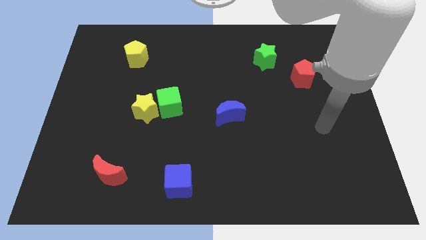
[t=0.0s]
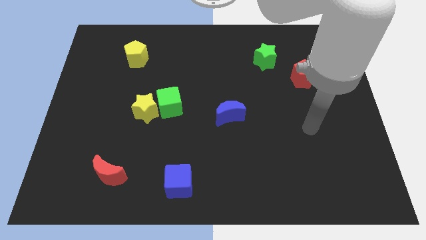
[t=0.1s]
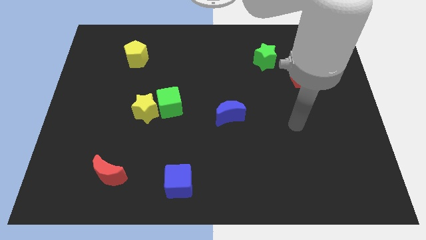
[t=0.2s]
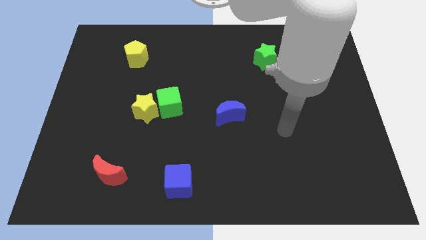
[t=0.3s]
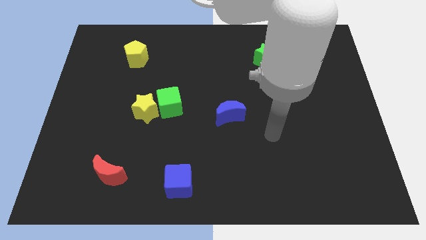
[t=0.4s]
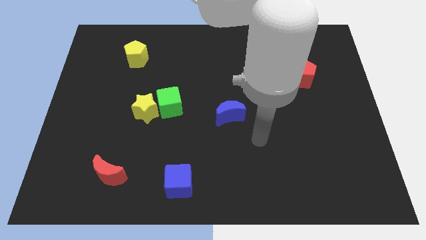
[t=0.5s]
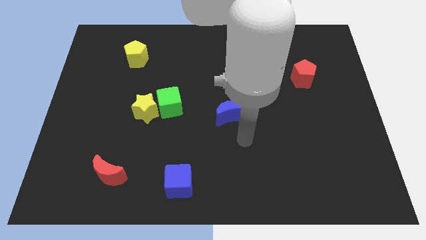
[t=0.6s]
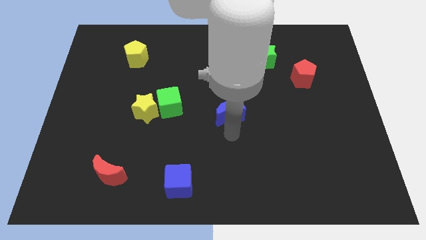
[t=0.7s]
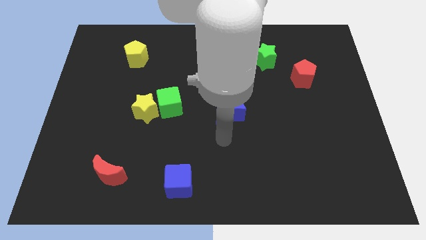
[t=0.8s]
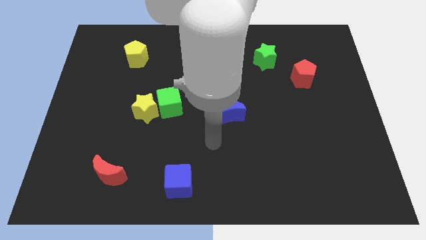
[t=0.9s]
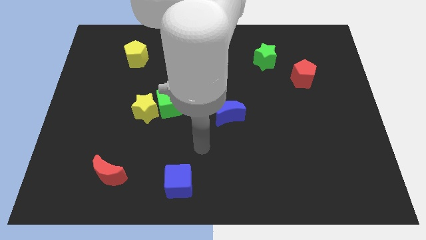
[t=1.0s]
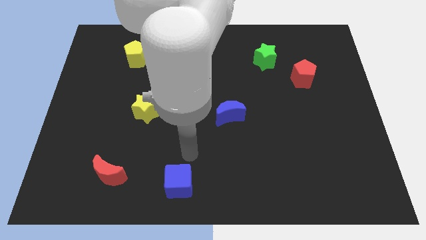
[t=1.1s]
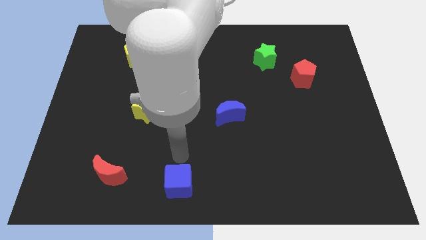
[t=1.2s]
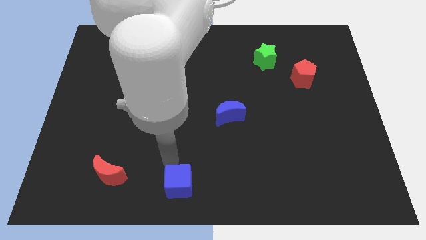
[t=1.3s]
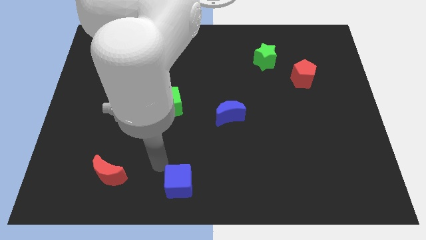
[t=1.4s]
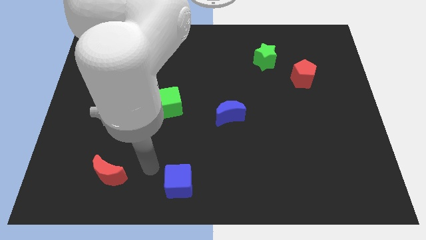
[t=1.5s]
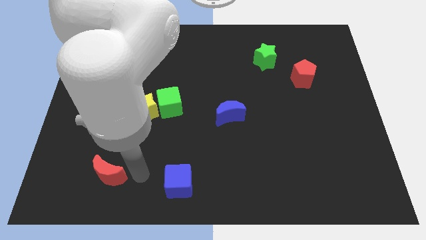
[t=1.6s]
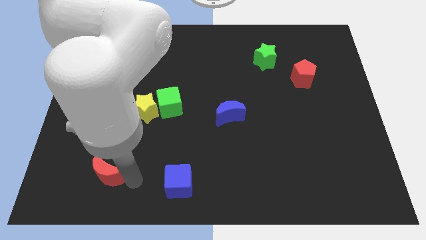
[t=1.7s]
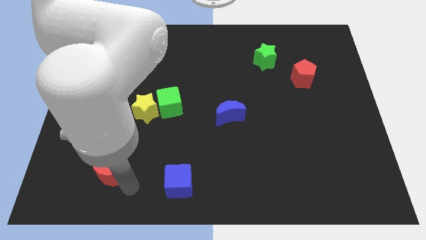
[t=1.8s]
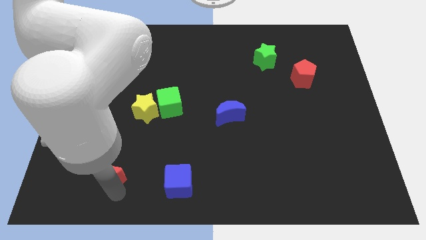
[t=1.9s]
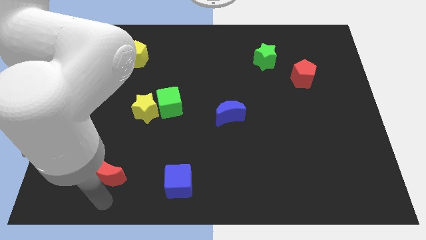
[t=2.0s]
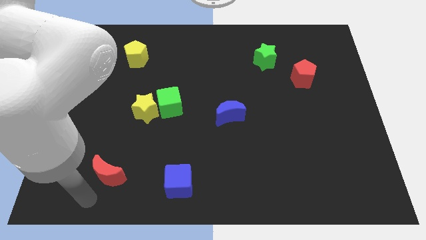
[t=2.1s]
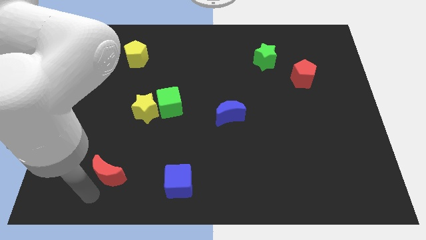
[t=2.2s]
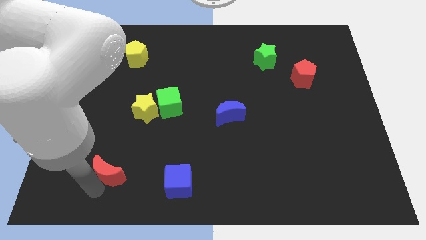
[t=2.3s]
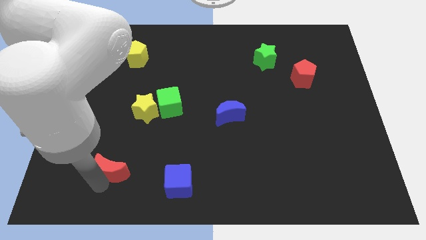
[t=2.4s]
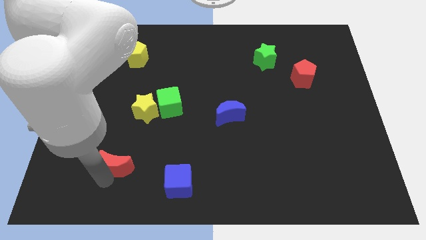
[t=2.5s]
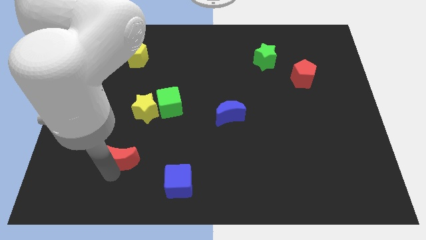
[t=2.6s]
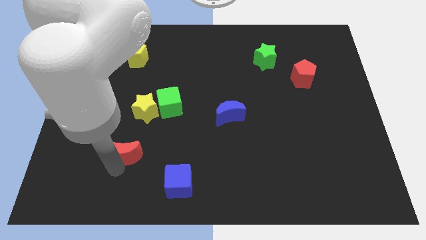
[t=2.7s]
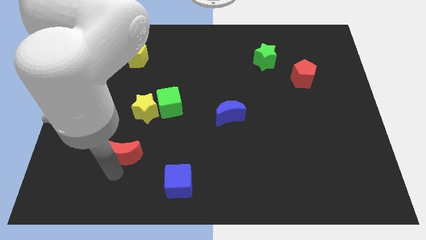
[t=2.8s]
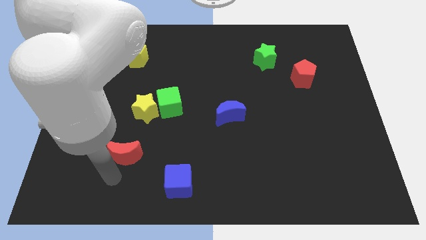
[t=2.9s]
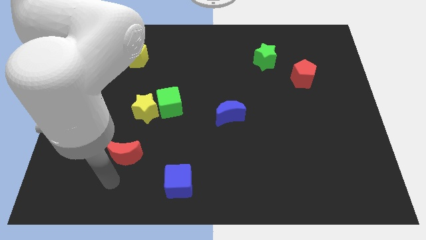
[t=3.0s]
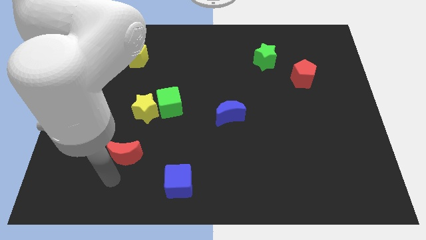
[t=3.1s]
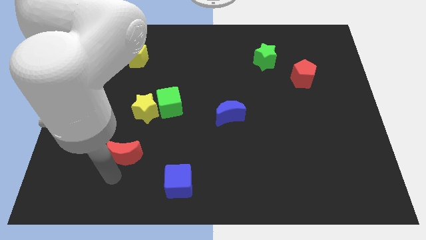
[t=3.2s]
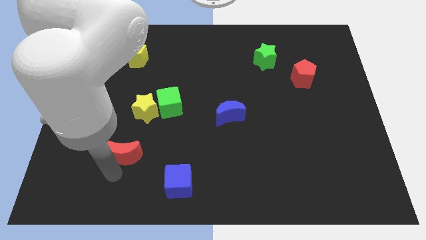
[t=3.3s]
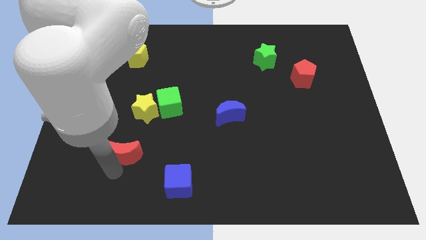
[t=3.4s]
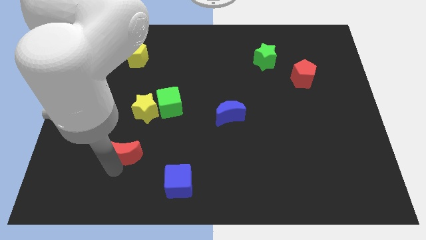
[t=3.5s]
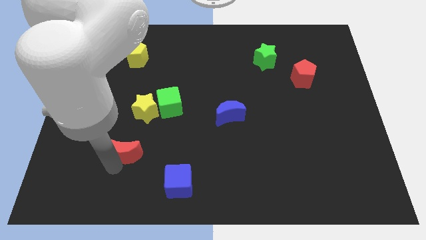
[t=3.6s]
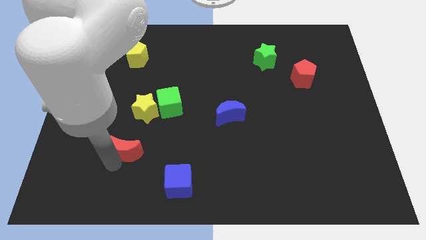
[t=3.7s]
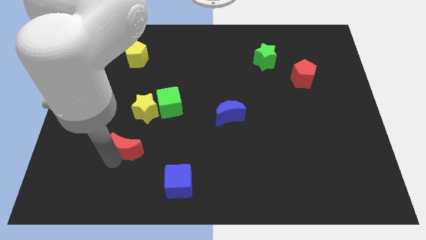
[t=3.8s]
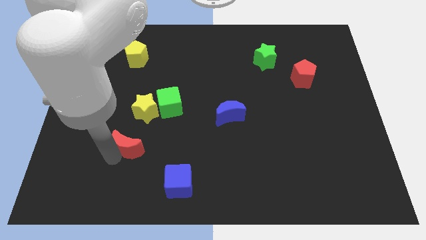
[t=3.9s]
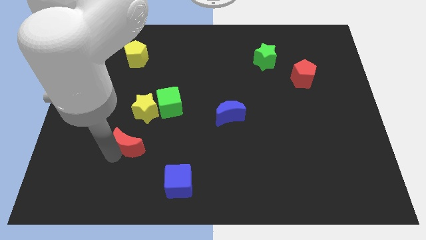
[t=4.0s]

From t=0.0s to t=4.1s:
slightly move the red moon up and then right

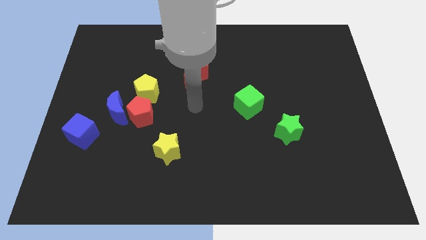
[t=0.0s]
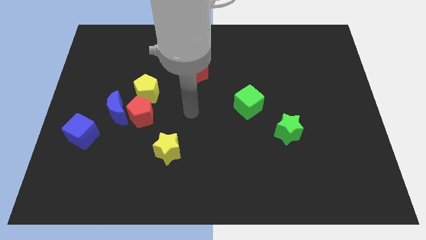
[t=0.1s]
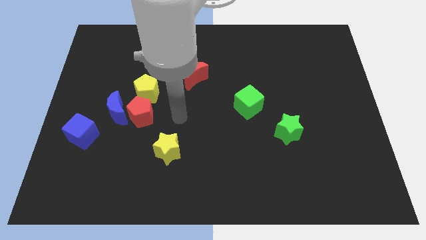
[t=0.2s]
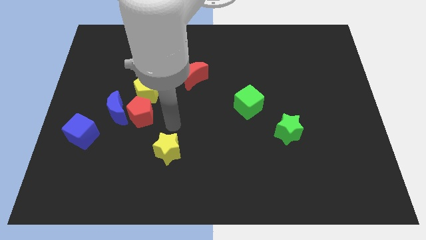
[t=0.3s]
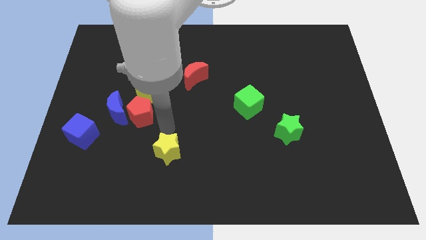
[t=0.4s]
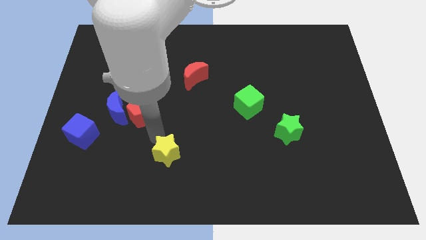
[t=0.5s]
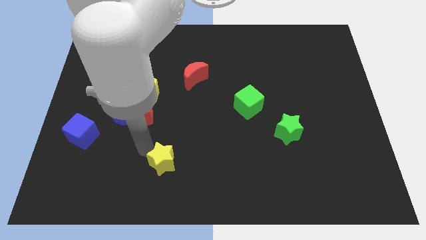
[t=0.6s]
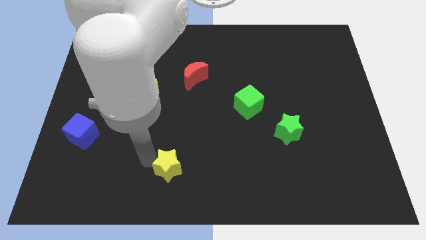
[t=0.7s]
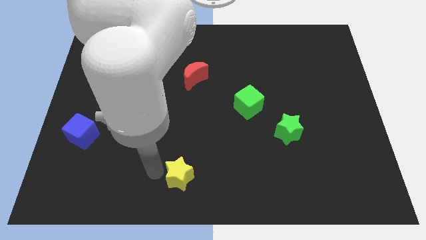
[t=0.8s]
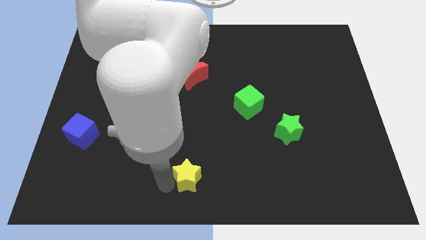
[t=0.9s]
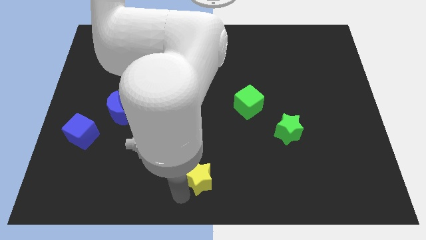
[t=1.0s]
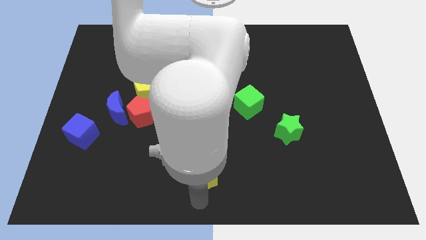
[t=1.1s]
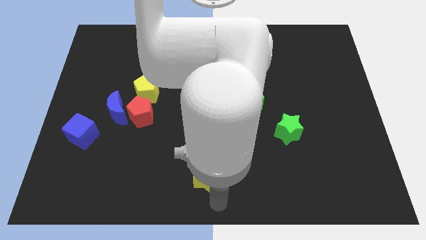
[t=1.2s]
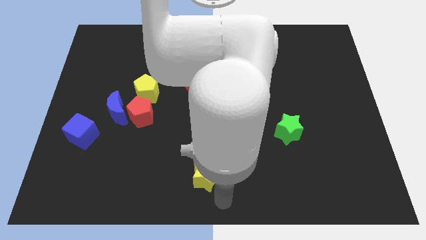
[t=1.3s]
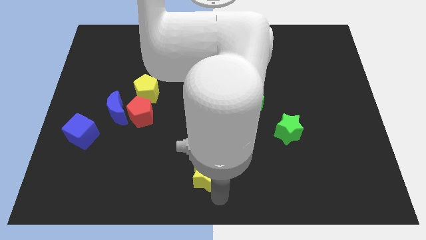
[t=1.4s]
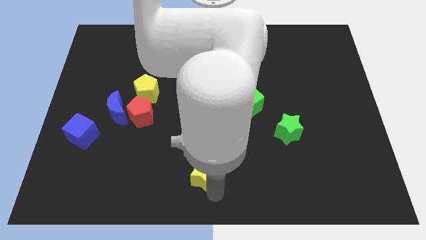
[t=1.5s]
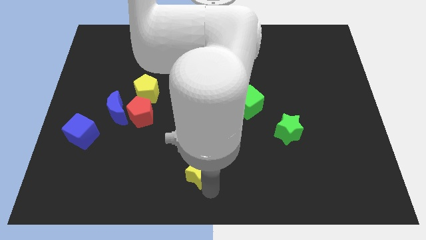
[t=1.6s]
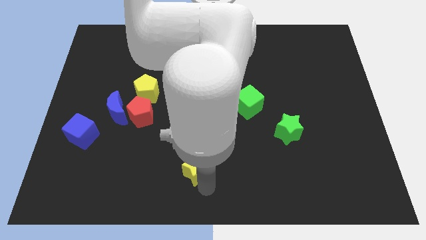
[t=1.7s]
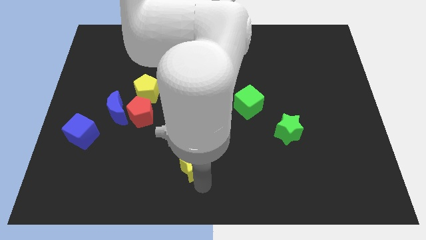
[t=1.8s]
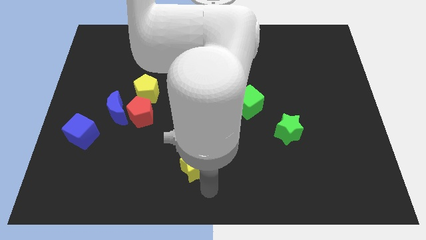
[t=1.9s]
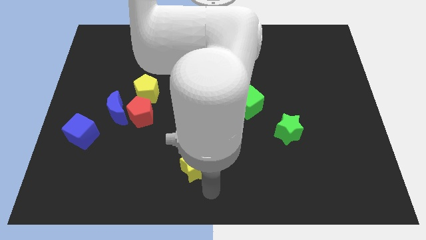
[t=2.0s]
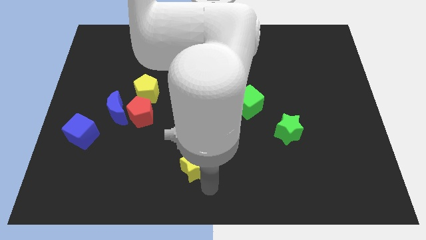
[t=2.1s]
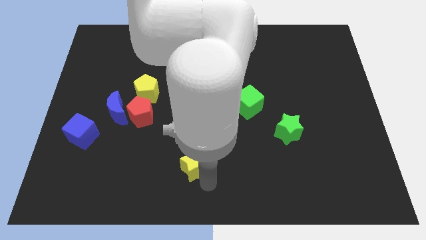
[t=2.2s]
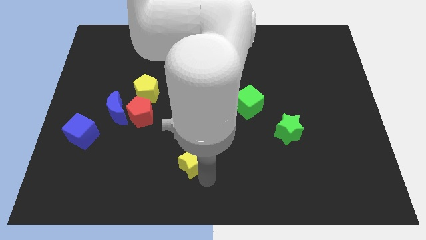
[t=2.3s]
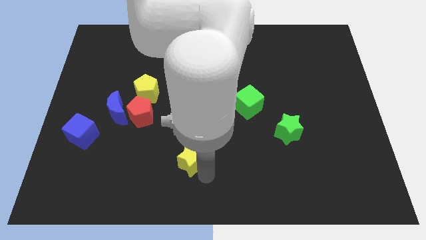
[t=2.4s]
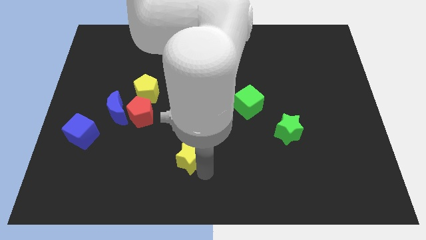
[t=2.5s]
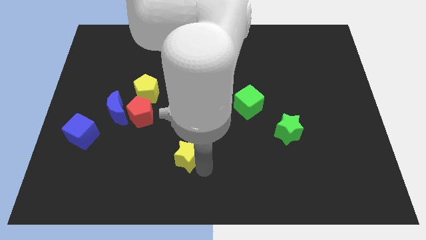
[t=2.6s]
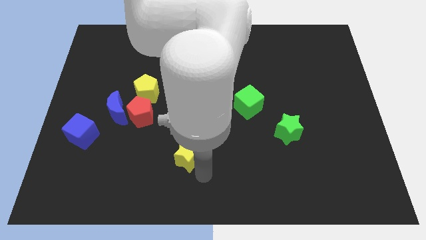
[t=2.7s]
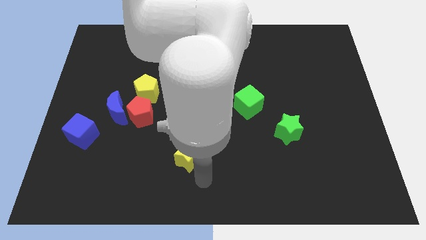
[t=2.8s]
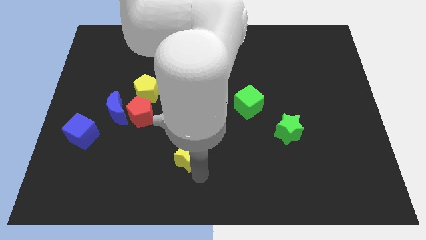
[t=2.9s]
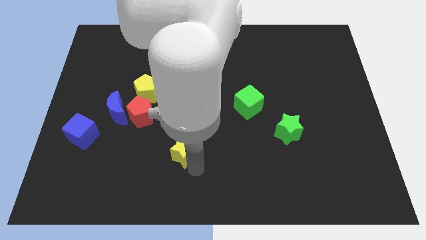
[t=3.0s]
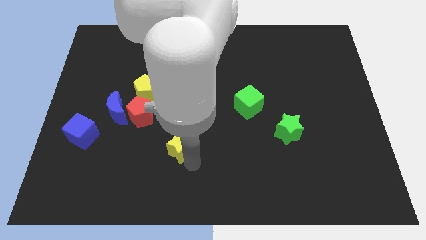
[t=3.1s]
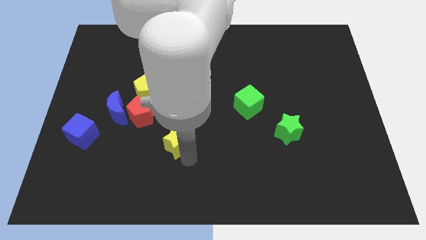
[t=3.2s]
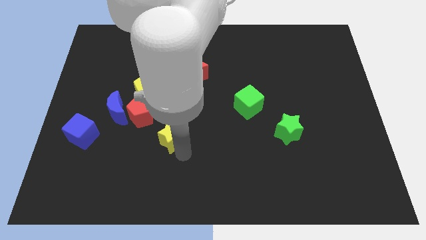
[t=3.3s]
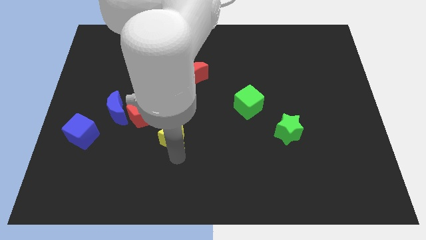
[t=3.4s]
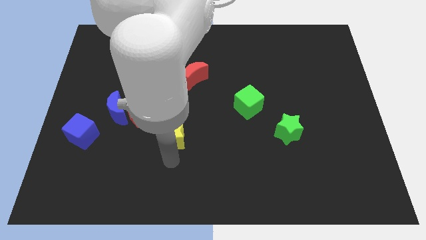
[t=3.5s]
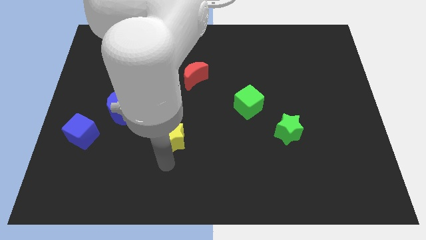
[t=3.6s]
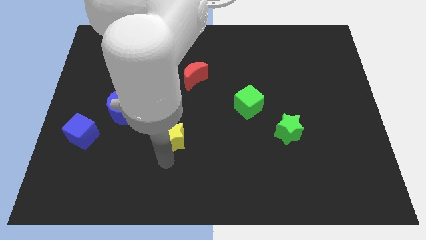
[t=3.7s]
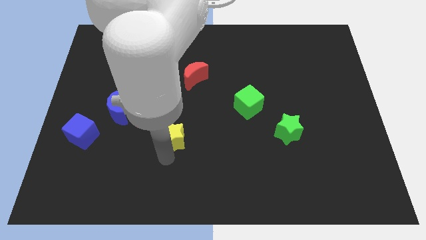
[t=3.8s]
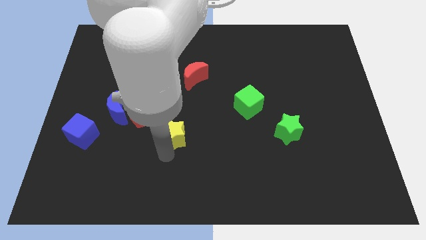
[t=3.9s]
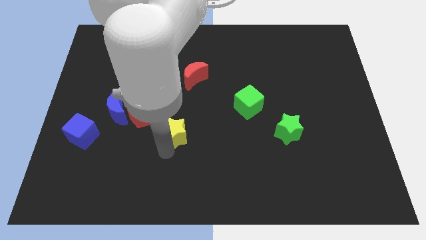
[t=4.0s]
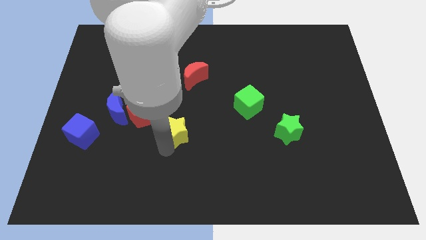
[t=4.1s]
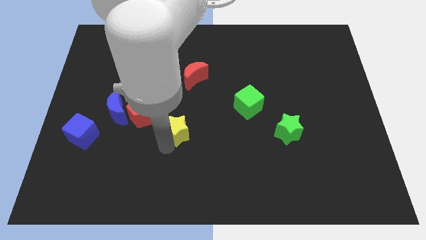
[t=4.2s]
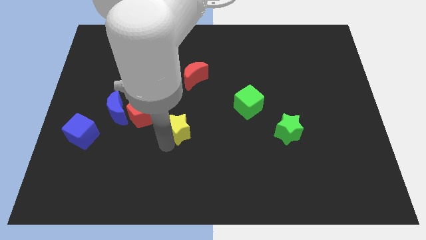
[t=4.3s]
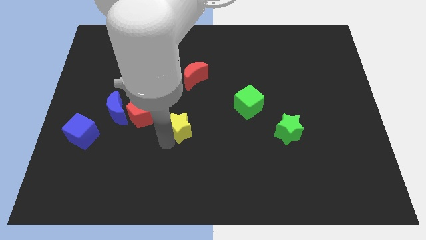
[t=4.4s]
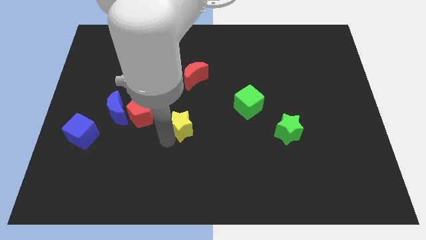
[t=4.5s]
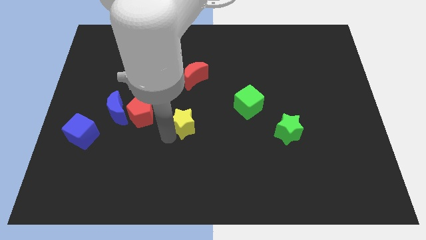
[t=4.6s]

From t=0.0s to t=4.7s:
push the yellow star upwards somewhat
